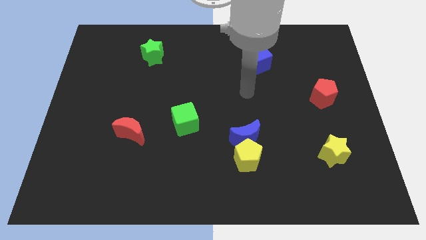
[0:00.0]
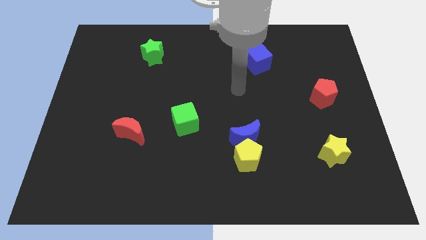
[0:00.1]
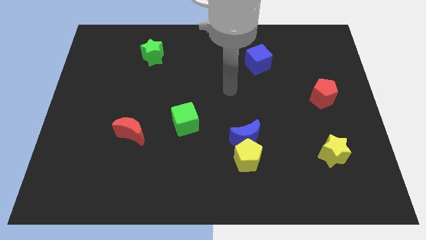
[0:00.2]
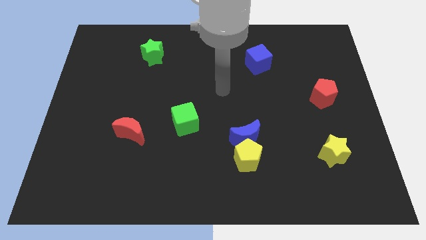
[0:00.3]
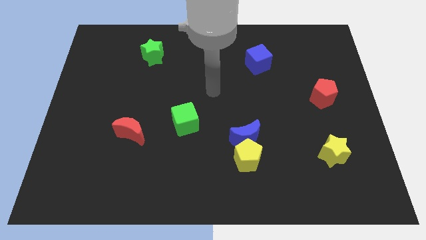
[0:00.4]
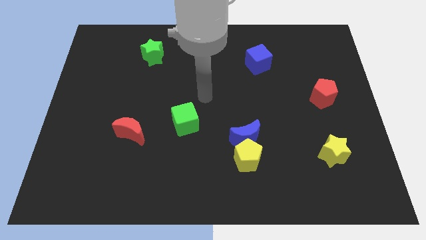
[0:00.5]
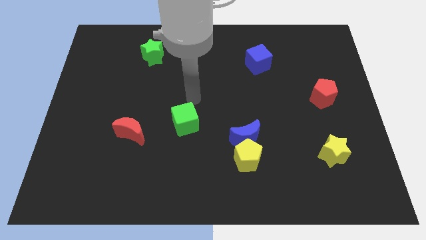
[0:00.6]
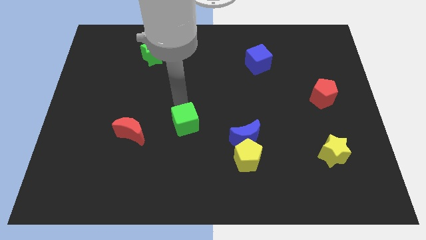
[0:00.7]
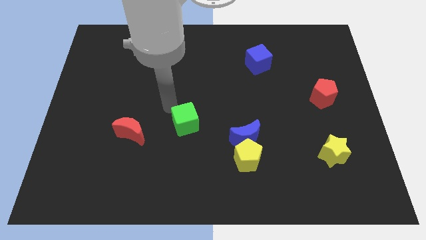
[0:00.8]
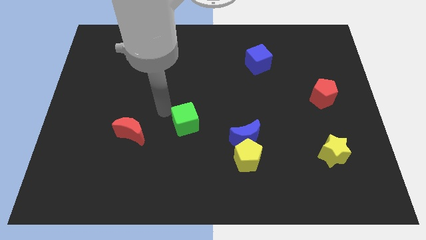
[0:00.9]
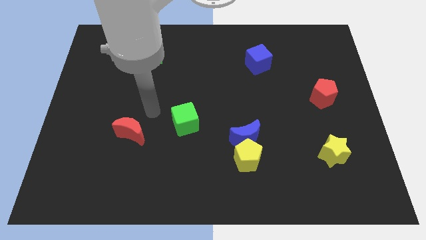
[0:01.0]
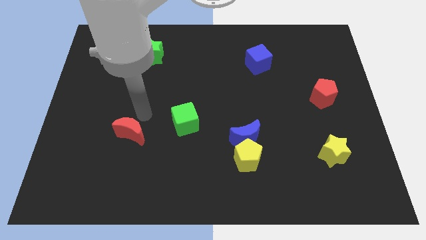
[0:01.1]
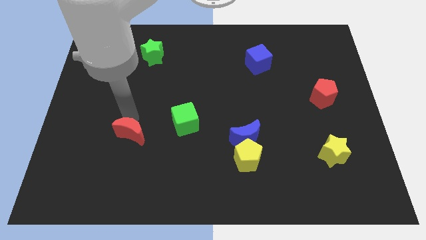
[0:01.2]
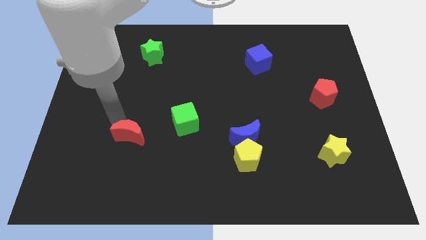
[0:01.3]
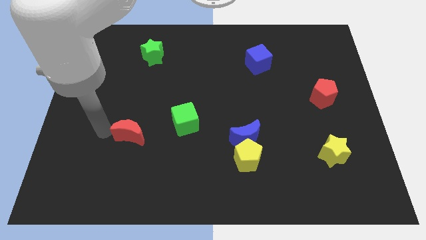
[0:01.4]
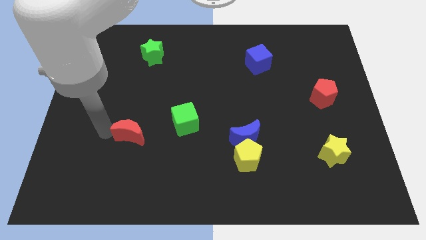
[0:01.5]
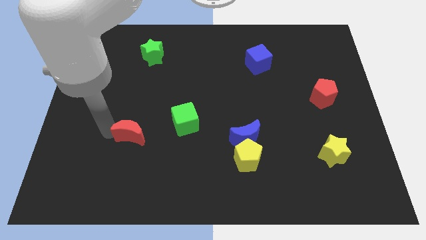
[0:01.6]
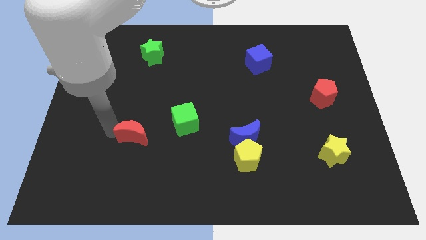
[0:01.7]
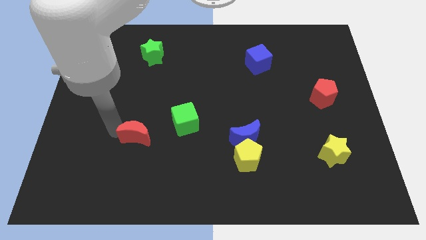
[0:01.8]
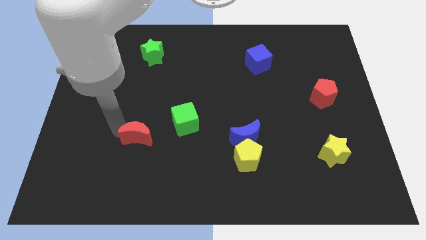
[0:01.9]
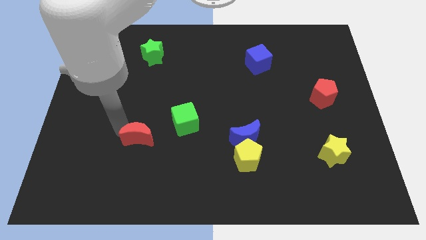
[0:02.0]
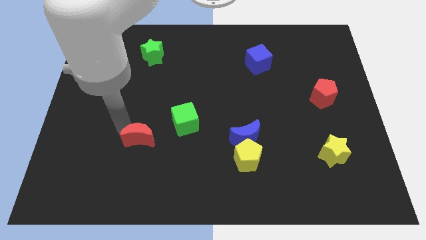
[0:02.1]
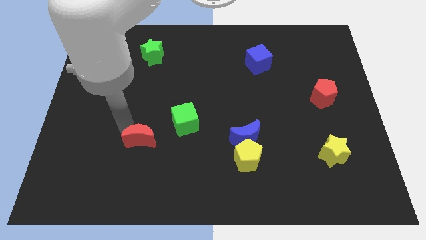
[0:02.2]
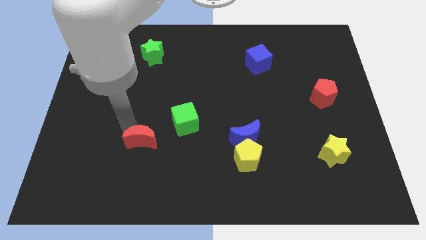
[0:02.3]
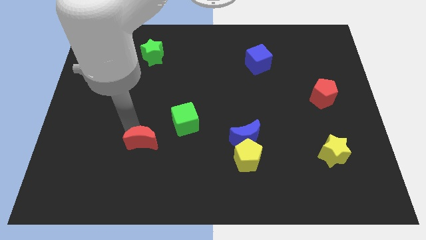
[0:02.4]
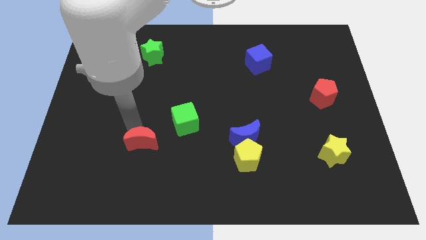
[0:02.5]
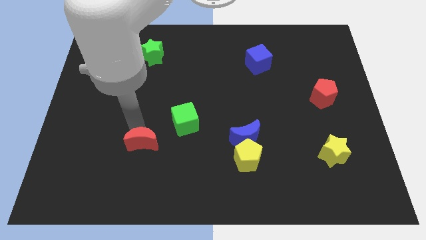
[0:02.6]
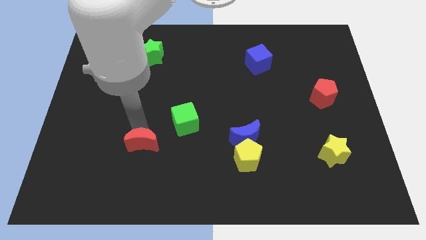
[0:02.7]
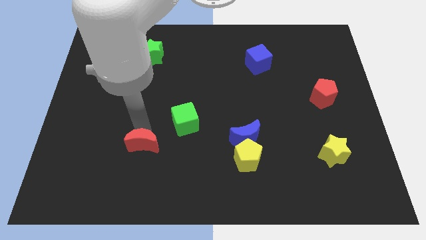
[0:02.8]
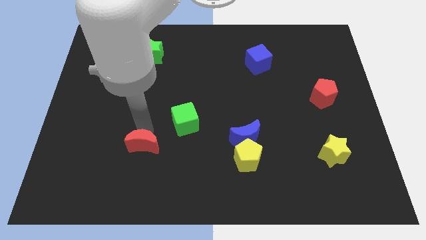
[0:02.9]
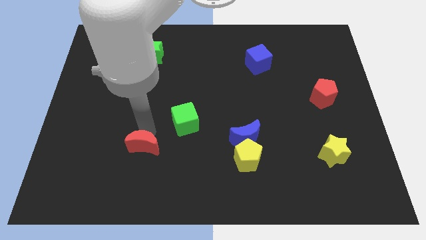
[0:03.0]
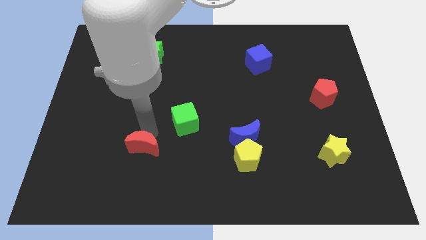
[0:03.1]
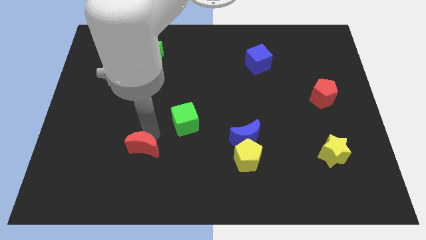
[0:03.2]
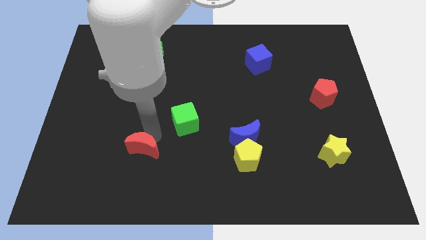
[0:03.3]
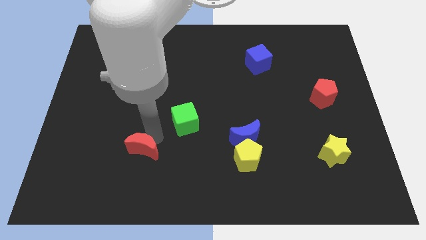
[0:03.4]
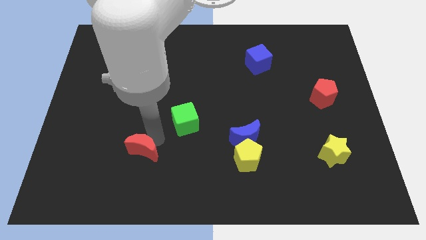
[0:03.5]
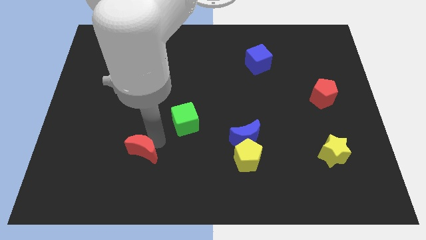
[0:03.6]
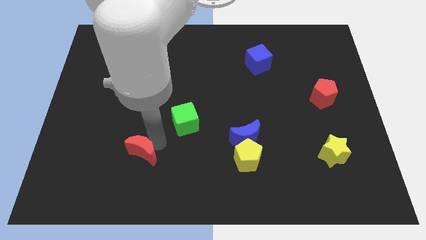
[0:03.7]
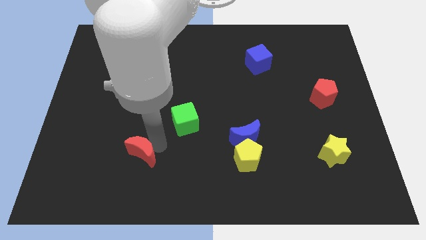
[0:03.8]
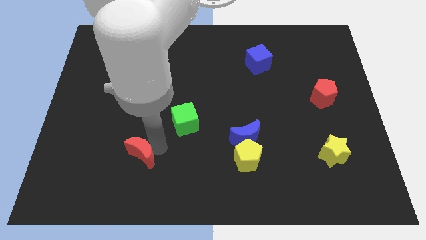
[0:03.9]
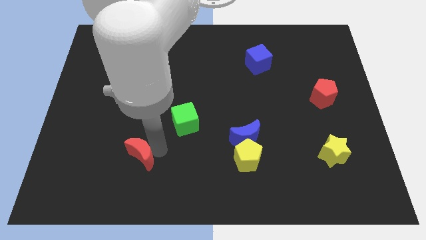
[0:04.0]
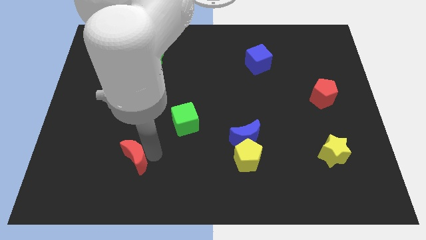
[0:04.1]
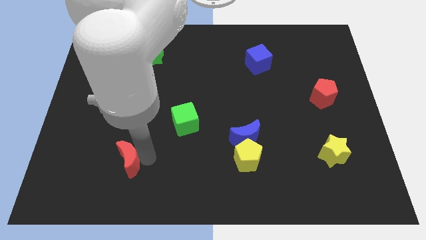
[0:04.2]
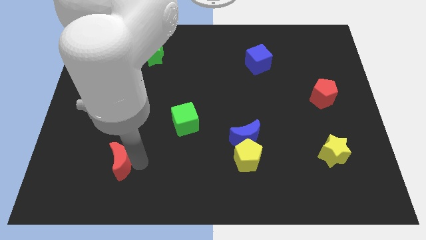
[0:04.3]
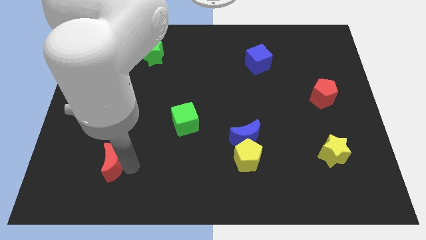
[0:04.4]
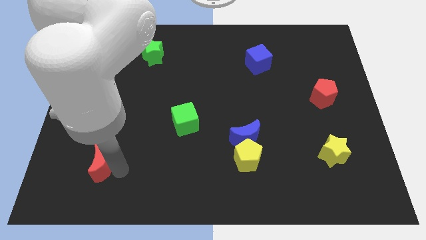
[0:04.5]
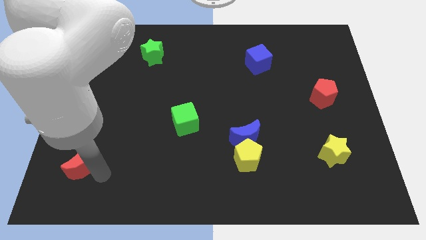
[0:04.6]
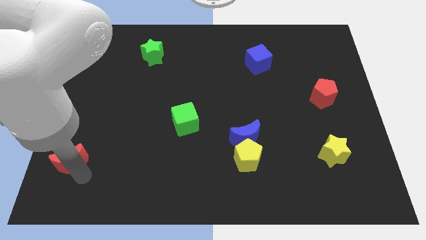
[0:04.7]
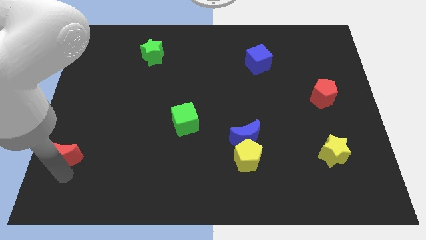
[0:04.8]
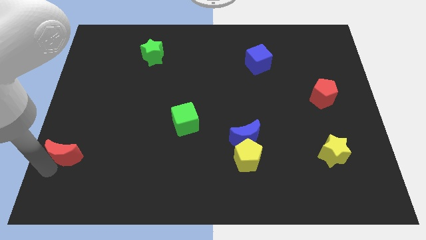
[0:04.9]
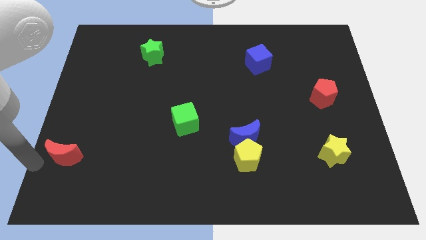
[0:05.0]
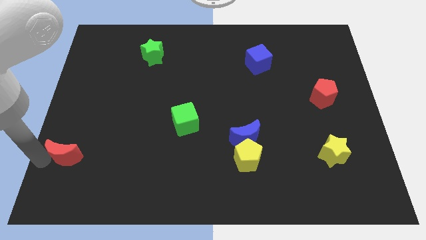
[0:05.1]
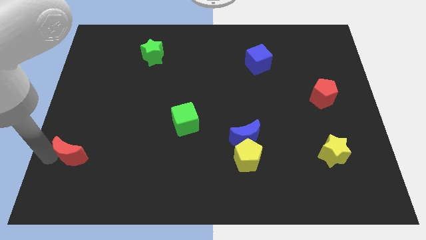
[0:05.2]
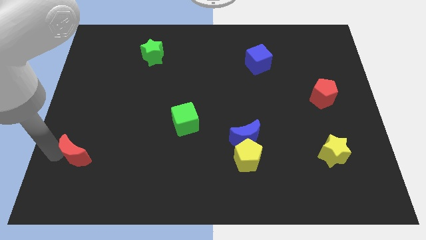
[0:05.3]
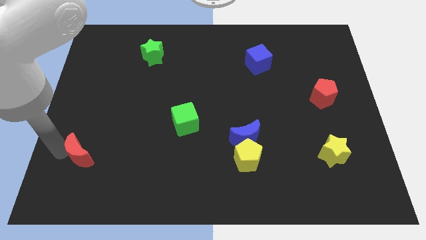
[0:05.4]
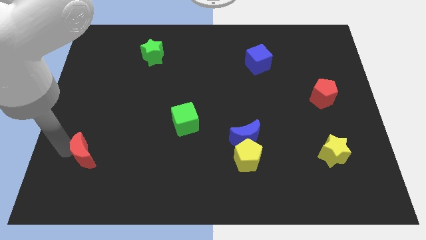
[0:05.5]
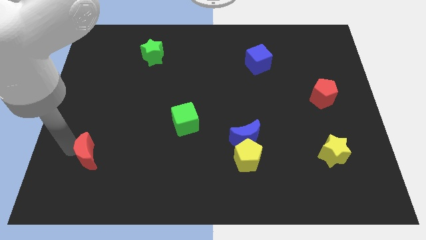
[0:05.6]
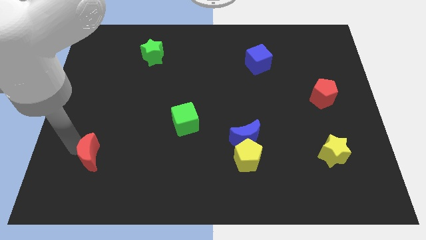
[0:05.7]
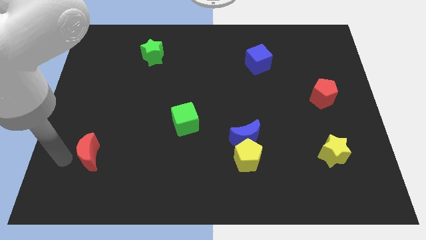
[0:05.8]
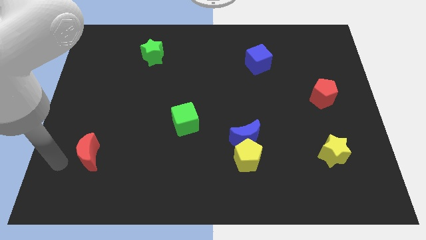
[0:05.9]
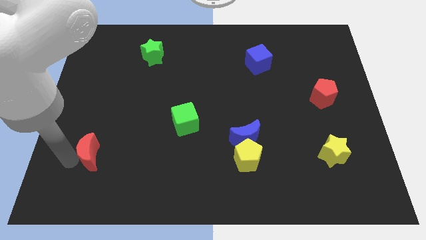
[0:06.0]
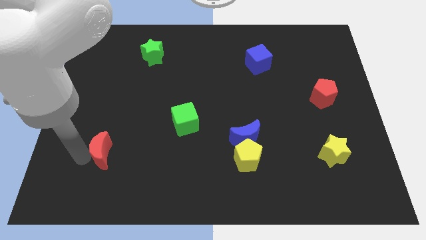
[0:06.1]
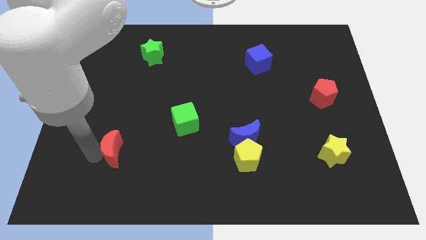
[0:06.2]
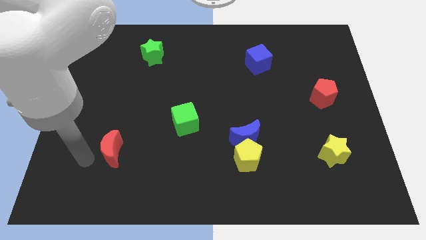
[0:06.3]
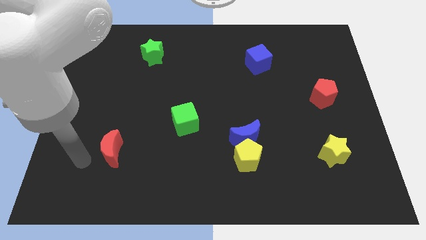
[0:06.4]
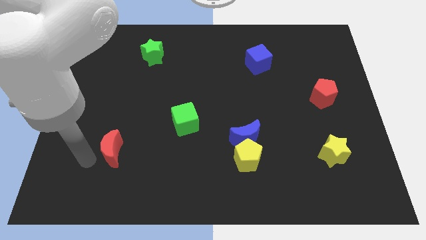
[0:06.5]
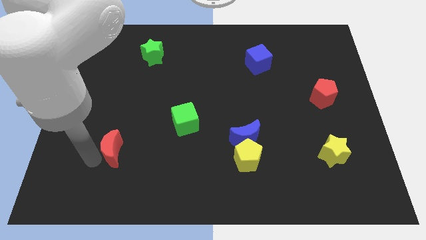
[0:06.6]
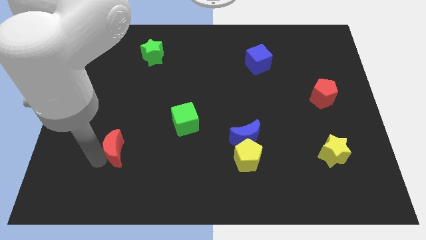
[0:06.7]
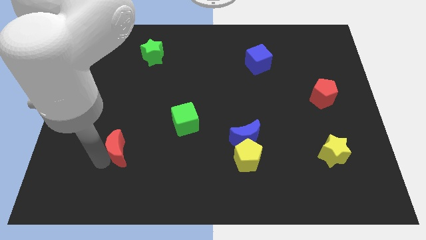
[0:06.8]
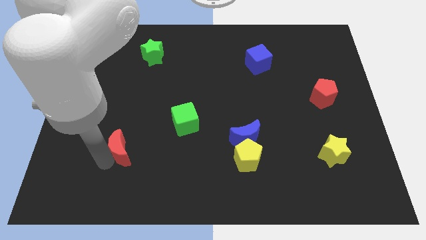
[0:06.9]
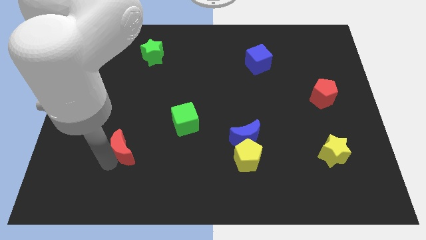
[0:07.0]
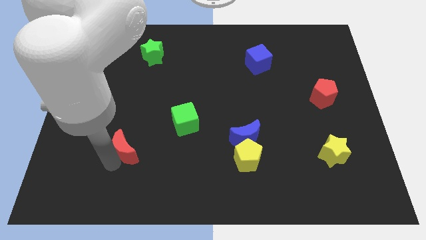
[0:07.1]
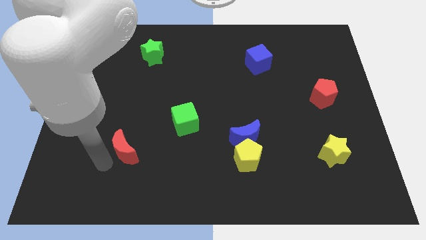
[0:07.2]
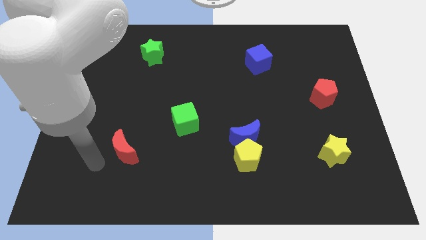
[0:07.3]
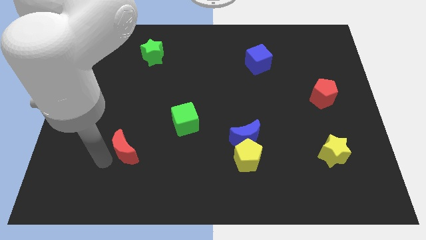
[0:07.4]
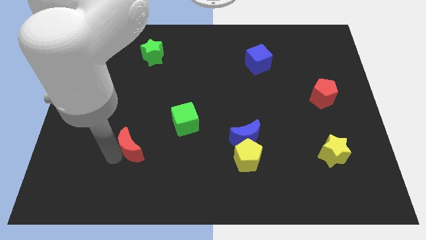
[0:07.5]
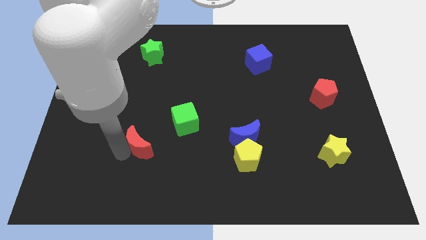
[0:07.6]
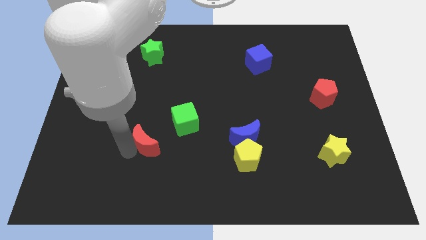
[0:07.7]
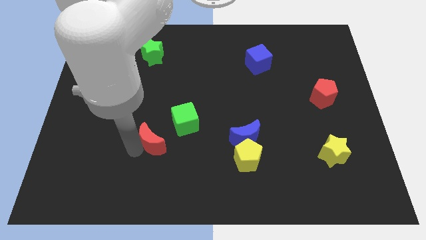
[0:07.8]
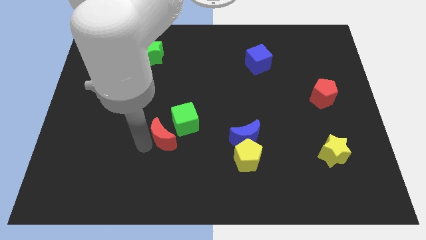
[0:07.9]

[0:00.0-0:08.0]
move the red moon to the right somewhat

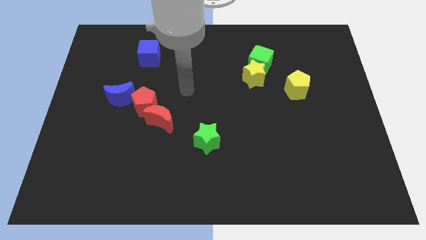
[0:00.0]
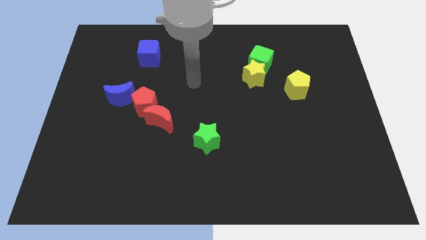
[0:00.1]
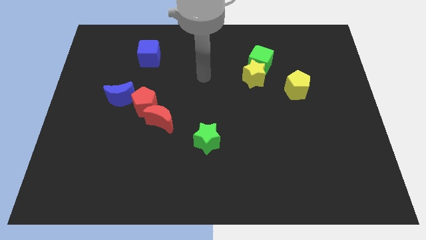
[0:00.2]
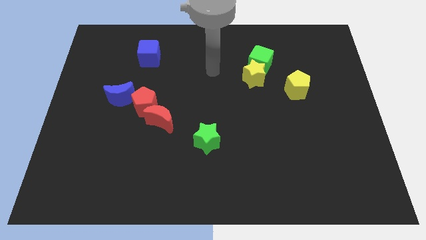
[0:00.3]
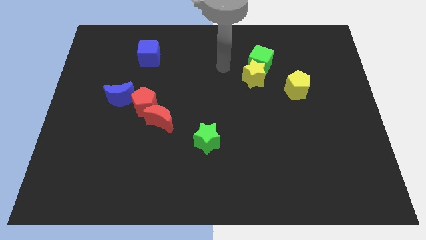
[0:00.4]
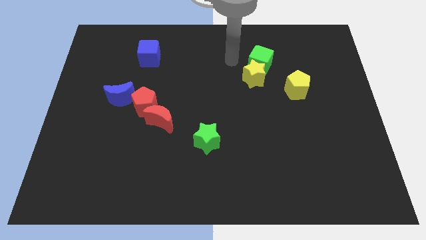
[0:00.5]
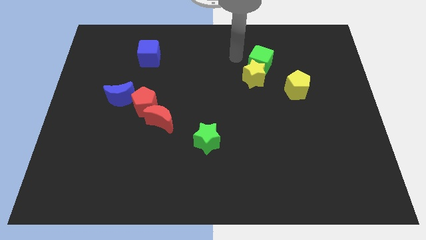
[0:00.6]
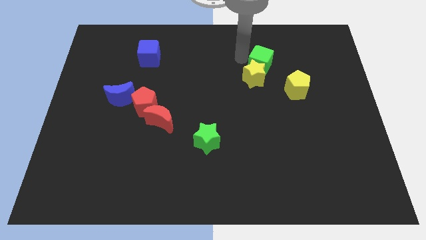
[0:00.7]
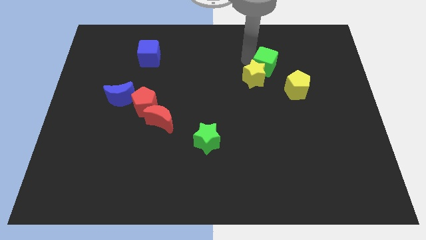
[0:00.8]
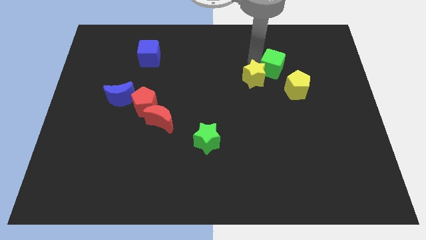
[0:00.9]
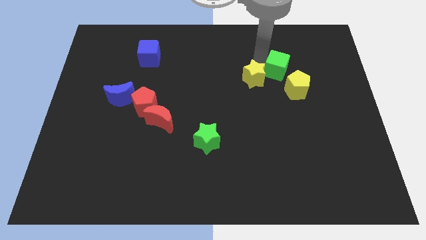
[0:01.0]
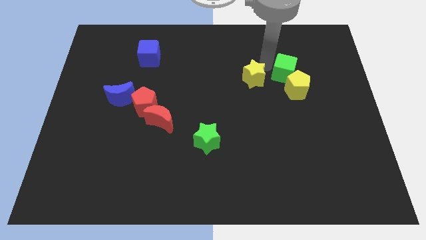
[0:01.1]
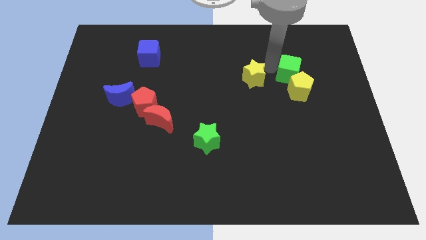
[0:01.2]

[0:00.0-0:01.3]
slightly slide the green cube diagonally downwards and to the right
